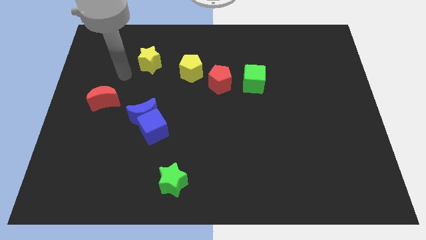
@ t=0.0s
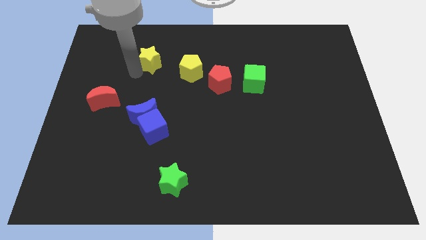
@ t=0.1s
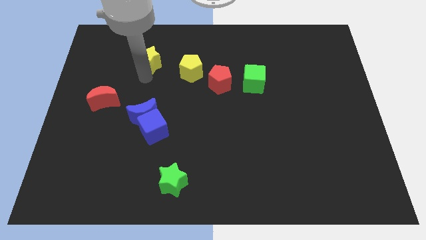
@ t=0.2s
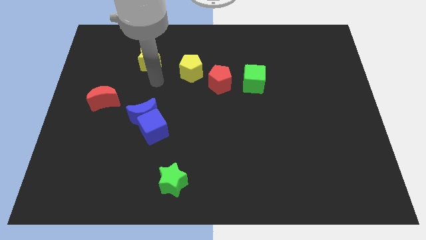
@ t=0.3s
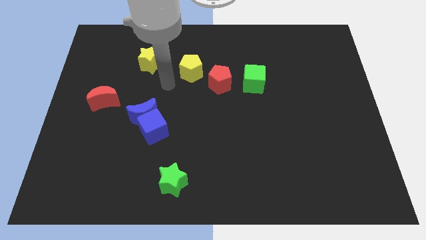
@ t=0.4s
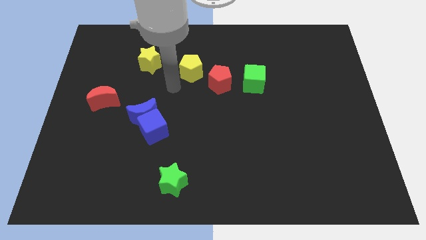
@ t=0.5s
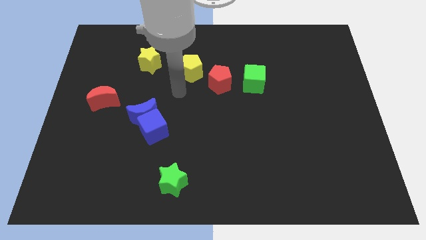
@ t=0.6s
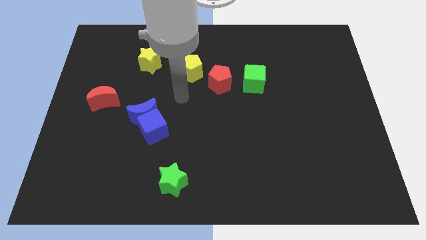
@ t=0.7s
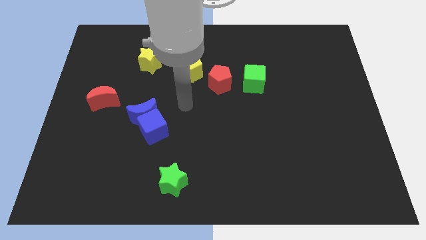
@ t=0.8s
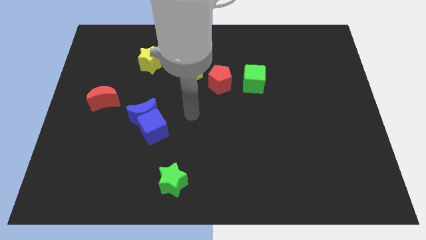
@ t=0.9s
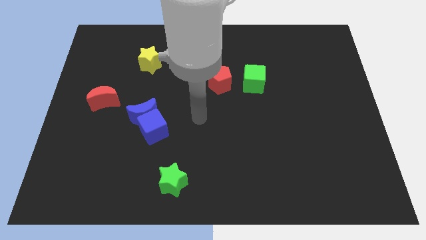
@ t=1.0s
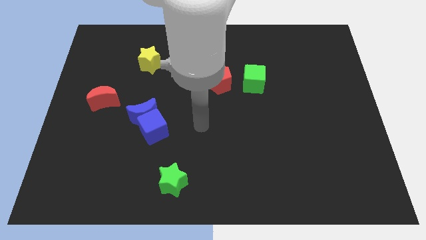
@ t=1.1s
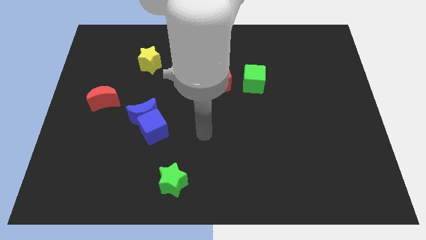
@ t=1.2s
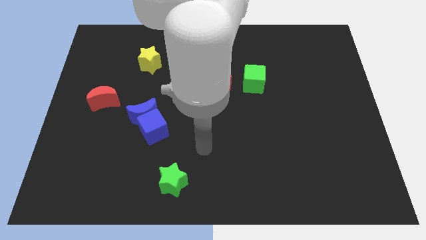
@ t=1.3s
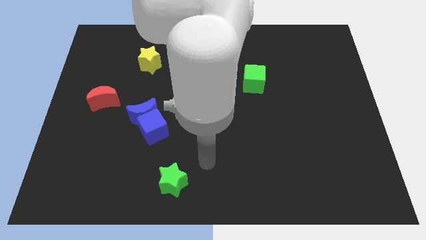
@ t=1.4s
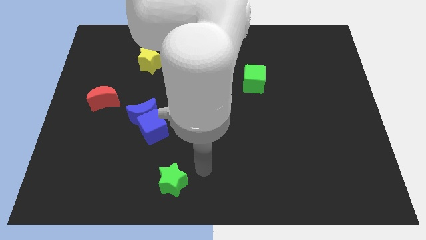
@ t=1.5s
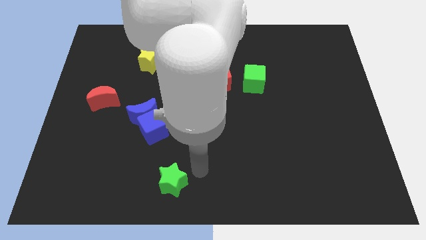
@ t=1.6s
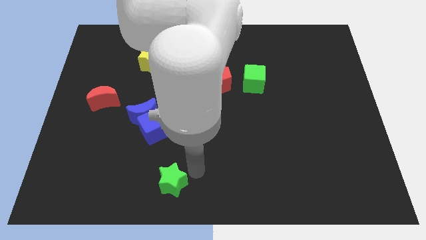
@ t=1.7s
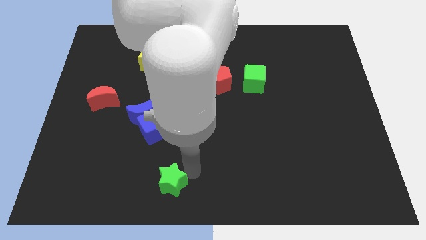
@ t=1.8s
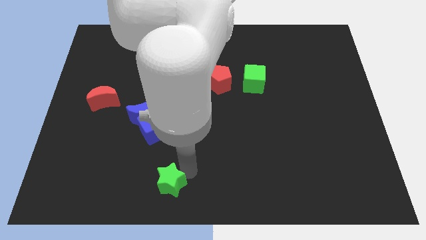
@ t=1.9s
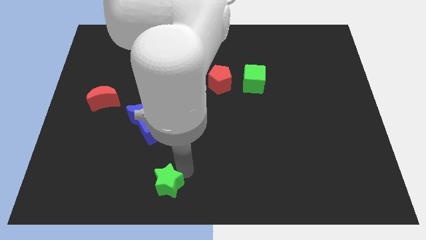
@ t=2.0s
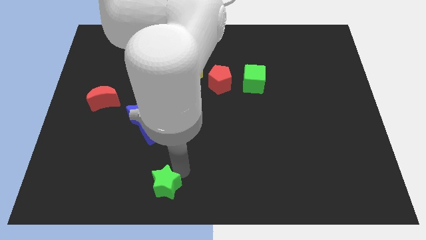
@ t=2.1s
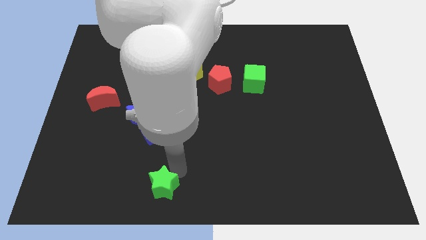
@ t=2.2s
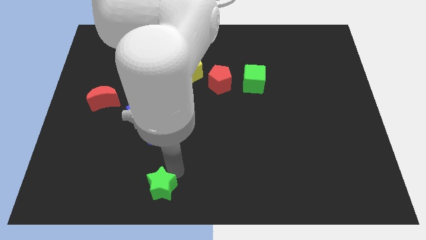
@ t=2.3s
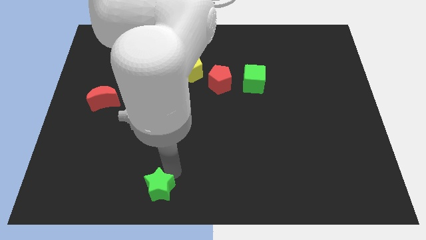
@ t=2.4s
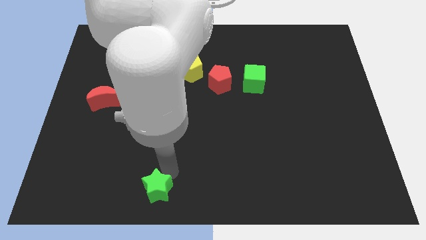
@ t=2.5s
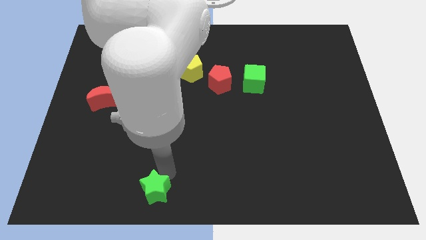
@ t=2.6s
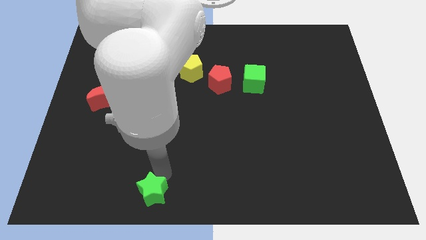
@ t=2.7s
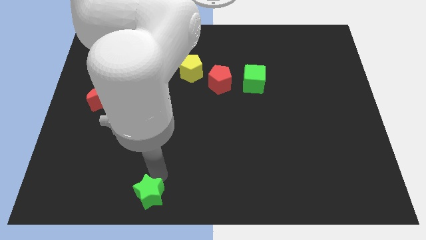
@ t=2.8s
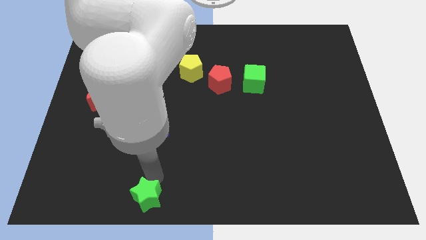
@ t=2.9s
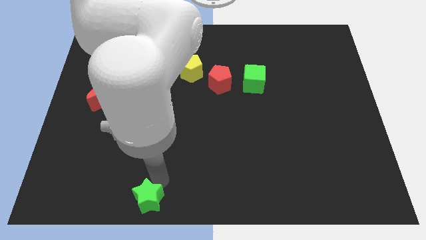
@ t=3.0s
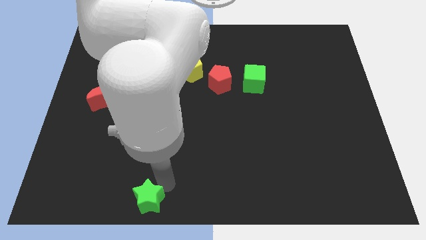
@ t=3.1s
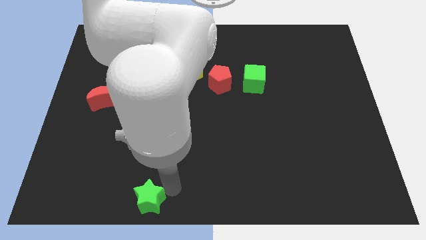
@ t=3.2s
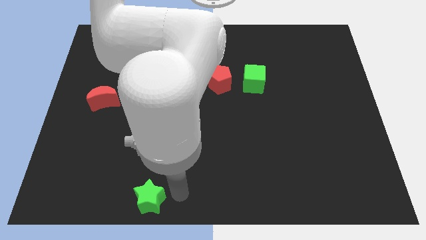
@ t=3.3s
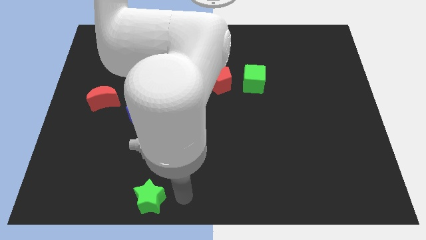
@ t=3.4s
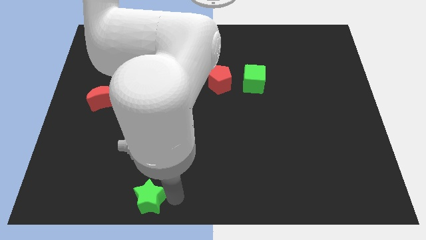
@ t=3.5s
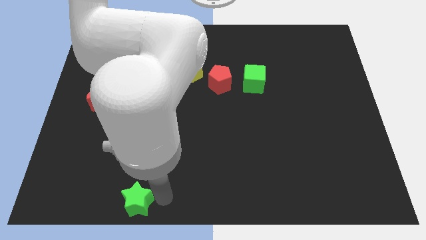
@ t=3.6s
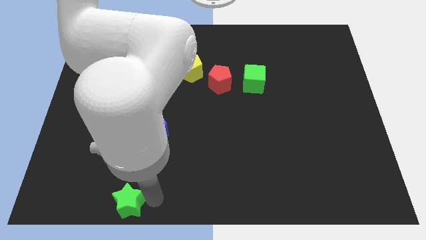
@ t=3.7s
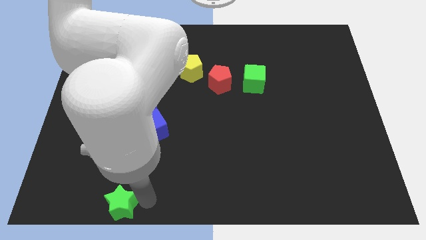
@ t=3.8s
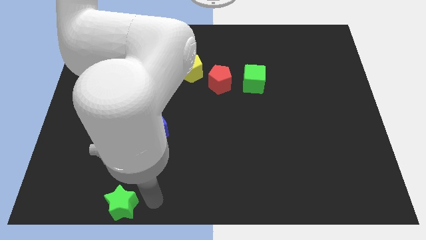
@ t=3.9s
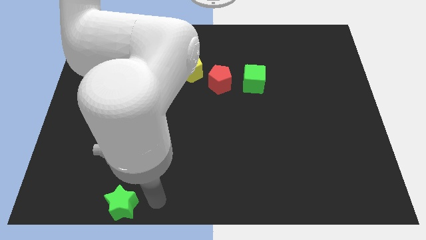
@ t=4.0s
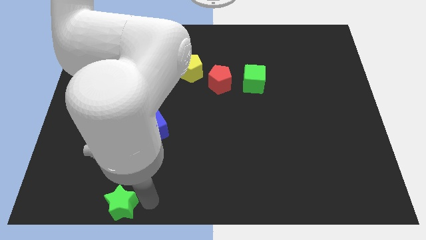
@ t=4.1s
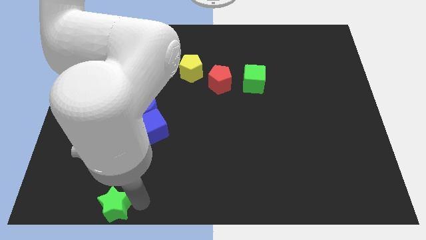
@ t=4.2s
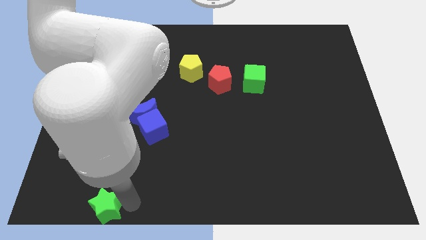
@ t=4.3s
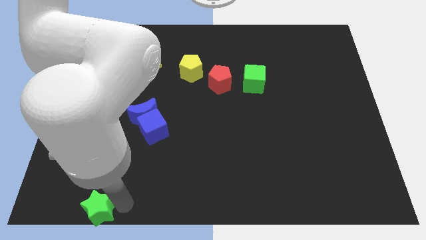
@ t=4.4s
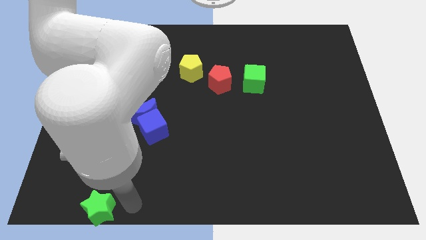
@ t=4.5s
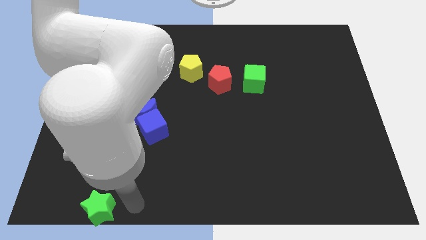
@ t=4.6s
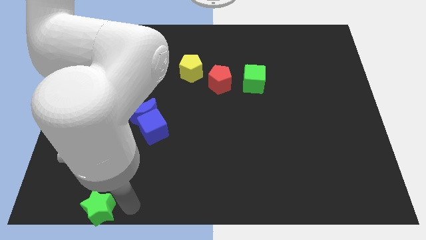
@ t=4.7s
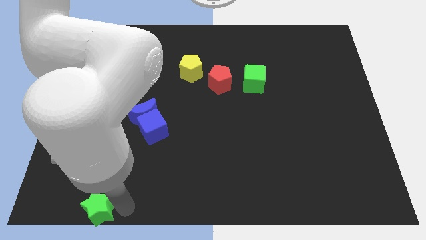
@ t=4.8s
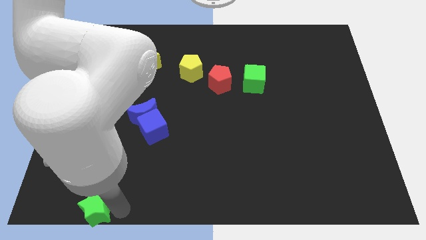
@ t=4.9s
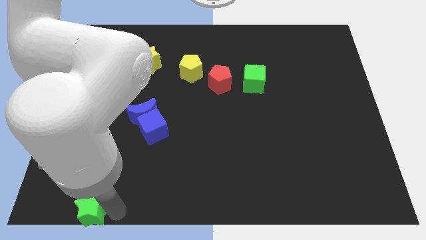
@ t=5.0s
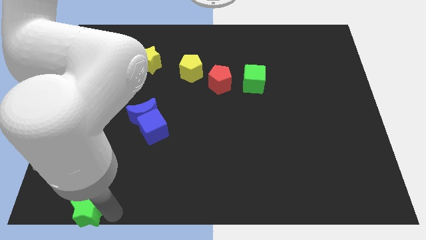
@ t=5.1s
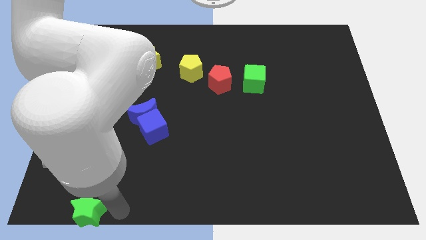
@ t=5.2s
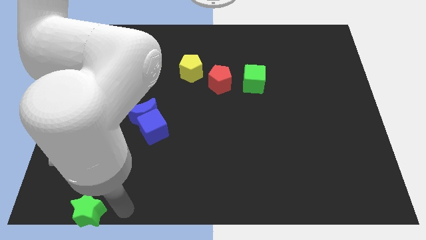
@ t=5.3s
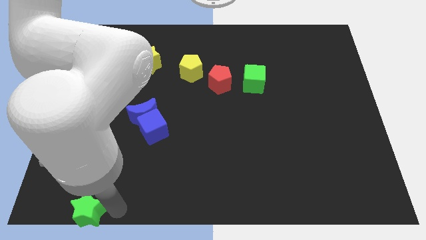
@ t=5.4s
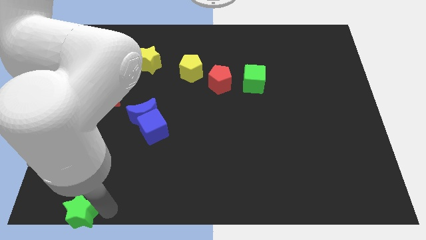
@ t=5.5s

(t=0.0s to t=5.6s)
push the green star to the bottom left of the board

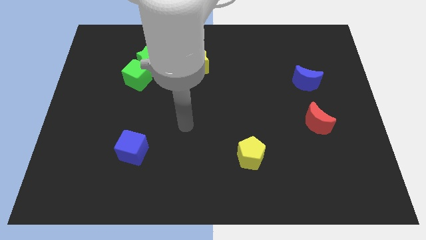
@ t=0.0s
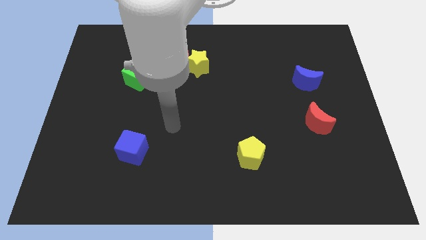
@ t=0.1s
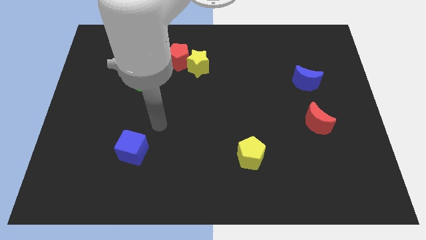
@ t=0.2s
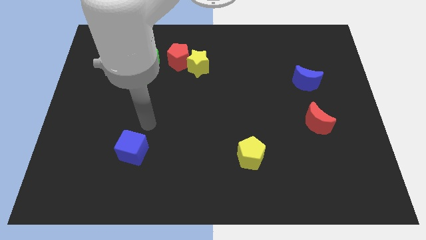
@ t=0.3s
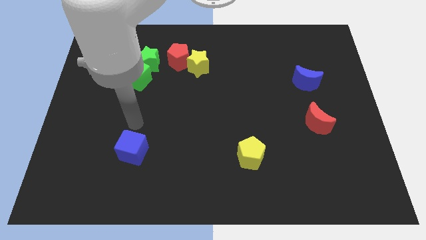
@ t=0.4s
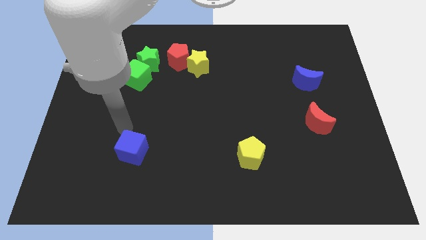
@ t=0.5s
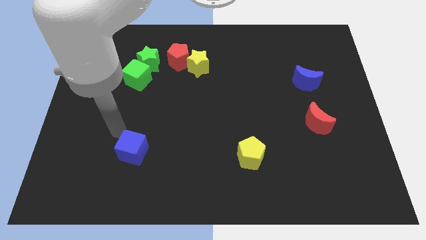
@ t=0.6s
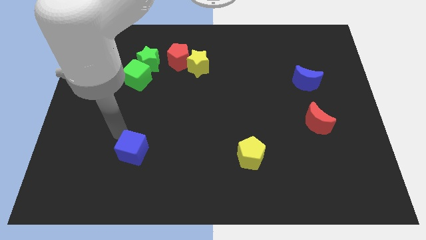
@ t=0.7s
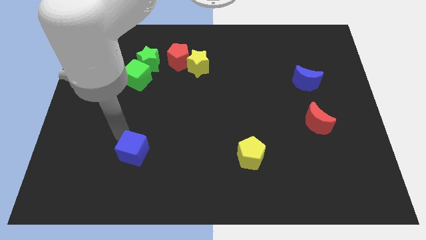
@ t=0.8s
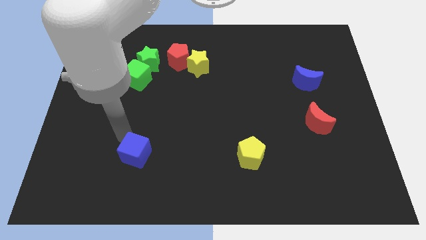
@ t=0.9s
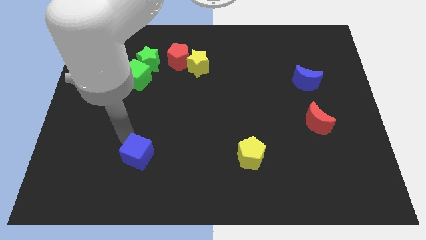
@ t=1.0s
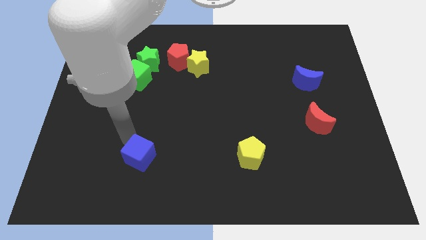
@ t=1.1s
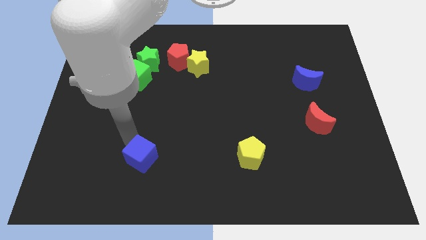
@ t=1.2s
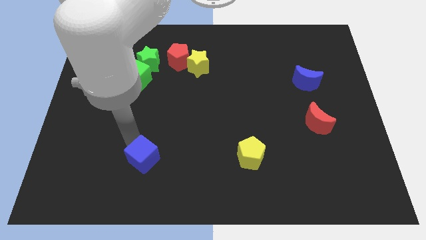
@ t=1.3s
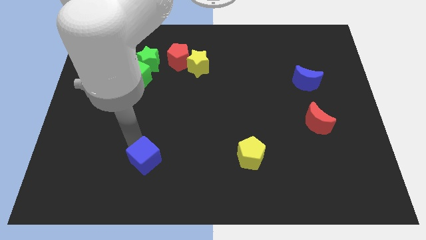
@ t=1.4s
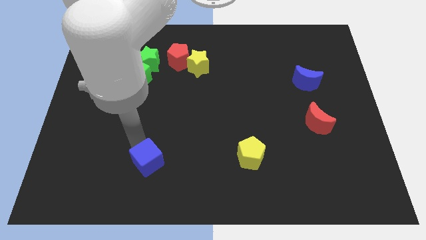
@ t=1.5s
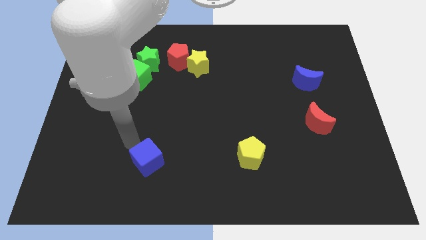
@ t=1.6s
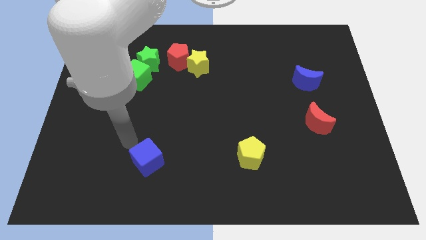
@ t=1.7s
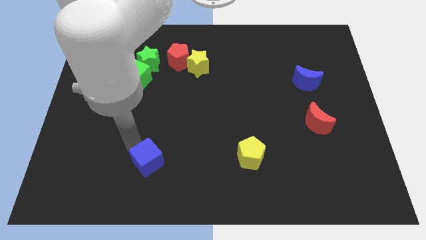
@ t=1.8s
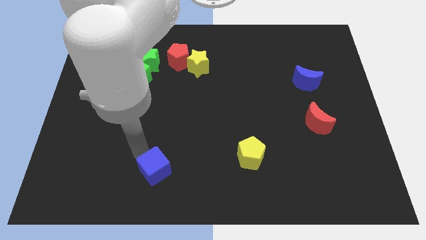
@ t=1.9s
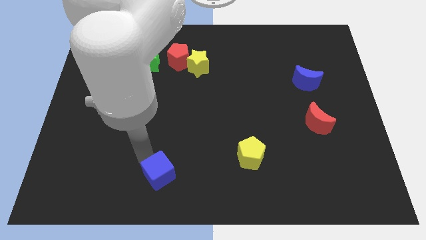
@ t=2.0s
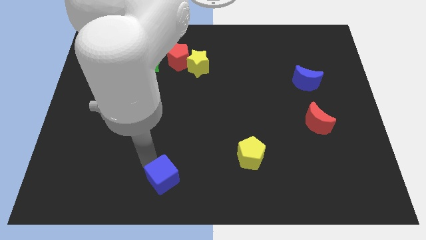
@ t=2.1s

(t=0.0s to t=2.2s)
move the blue cube to the bottom
